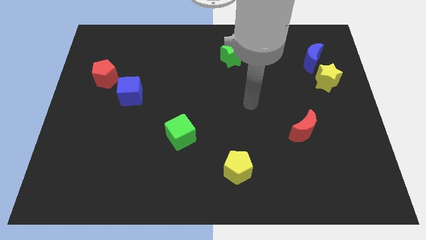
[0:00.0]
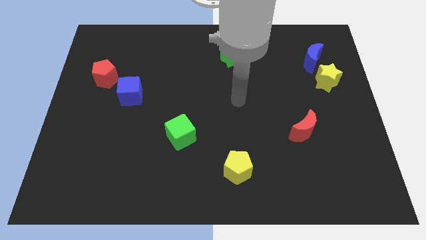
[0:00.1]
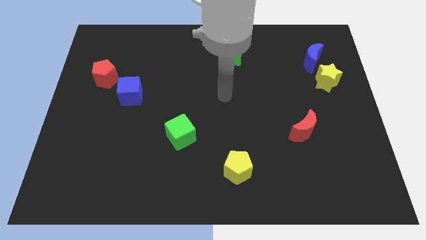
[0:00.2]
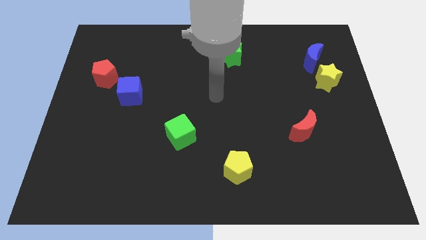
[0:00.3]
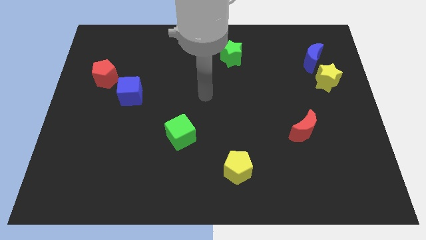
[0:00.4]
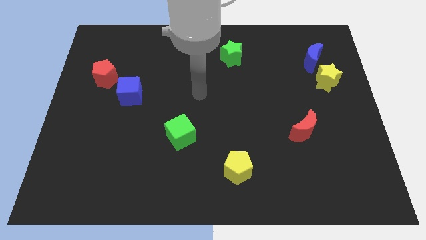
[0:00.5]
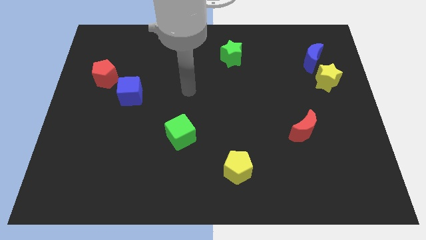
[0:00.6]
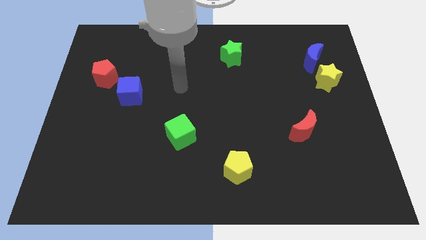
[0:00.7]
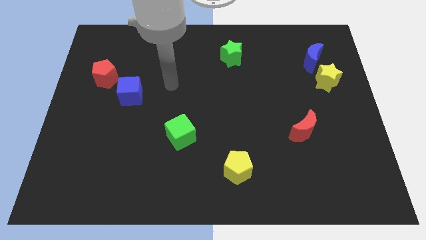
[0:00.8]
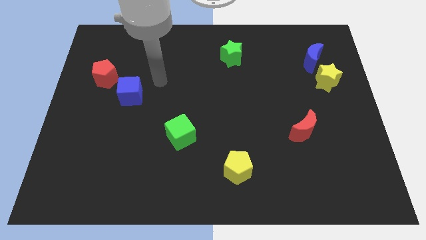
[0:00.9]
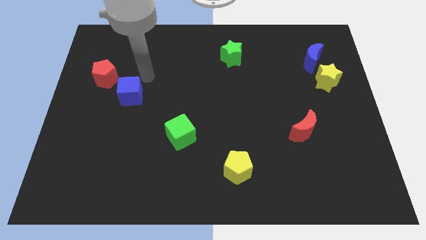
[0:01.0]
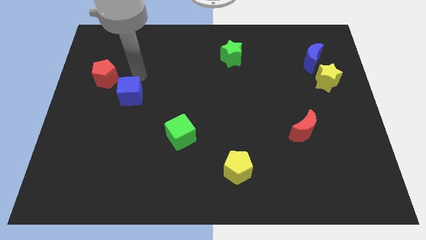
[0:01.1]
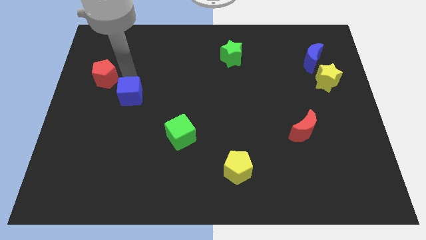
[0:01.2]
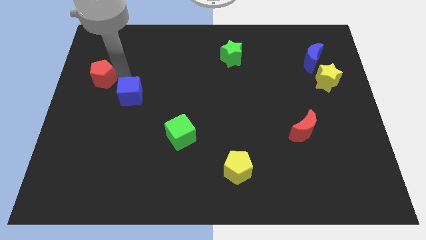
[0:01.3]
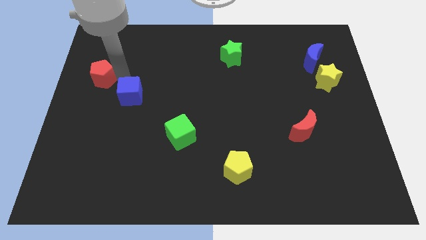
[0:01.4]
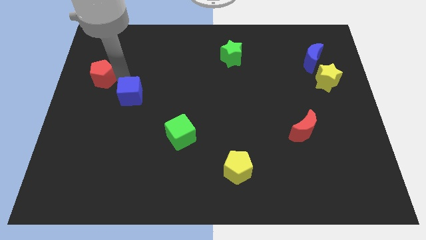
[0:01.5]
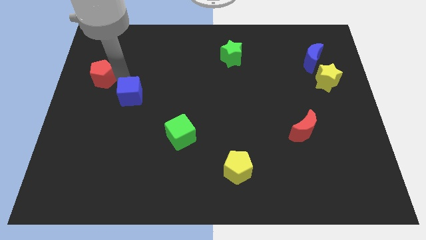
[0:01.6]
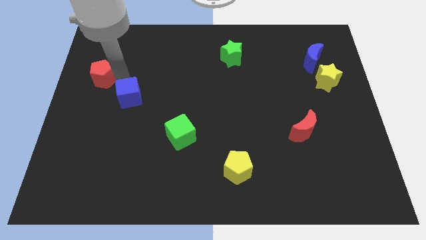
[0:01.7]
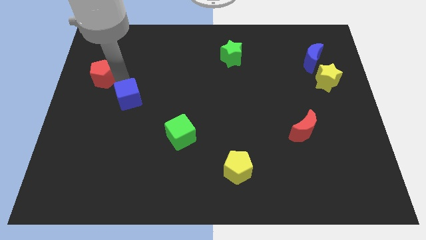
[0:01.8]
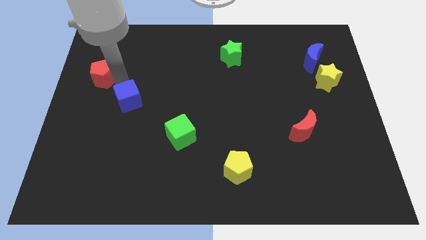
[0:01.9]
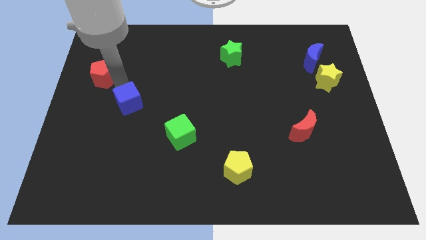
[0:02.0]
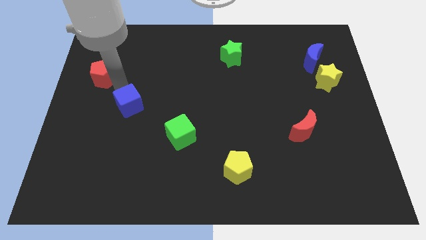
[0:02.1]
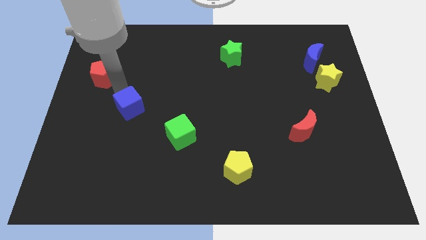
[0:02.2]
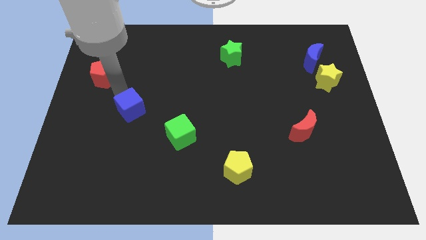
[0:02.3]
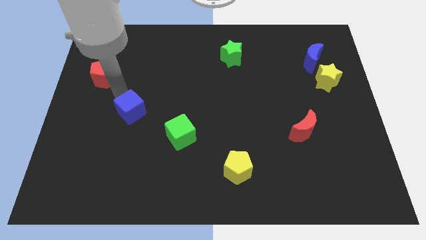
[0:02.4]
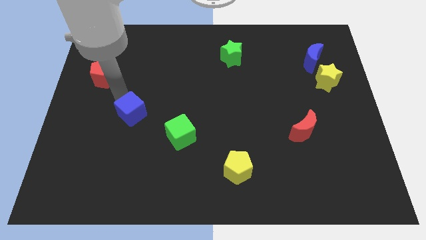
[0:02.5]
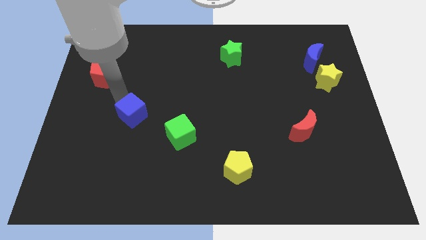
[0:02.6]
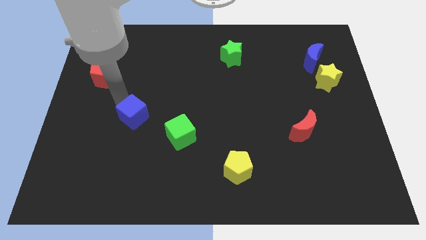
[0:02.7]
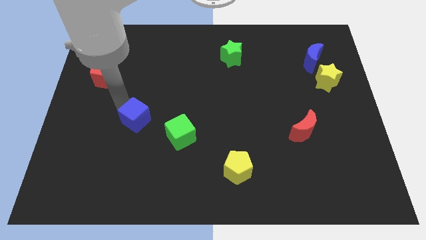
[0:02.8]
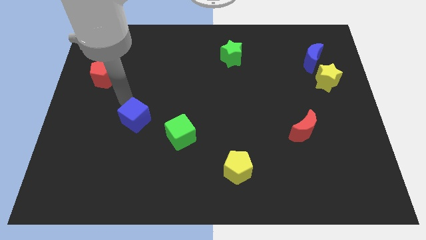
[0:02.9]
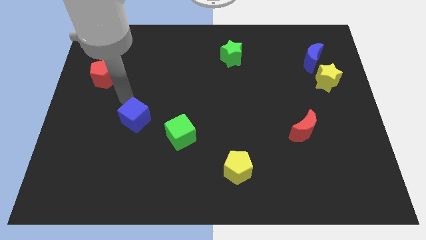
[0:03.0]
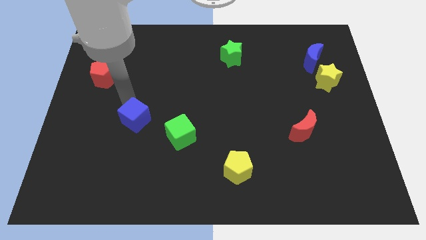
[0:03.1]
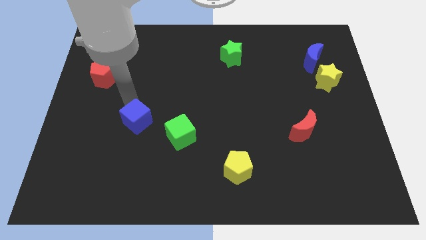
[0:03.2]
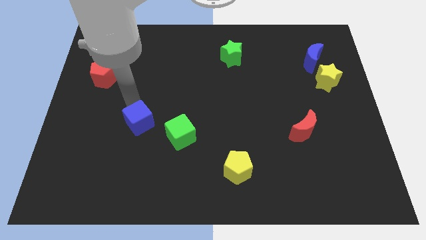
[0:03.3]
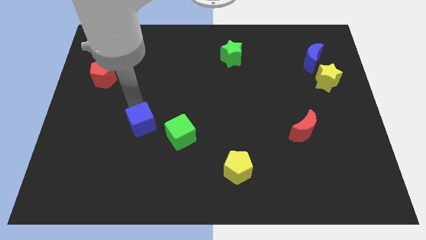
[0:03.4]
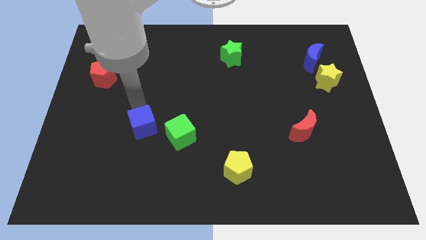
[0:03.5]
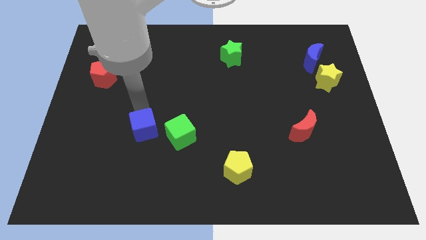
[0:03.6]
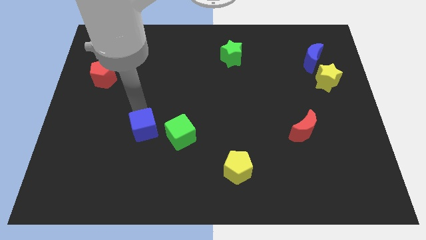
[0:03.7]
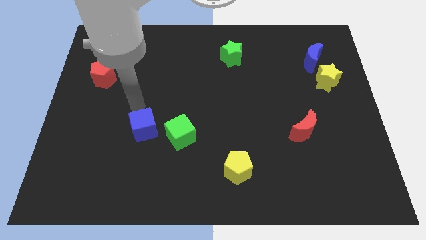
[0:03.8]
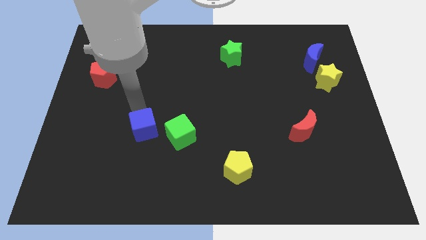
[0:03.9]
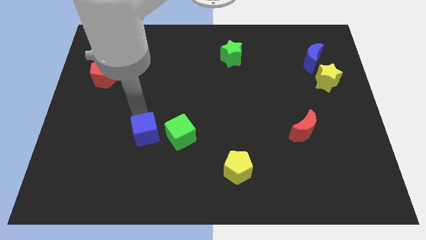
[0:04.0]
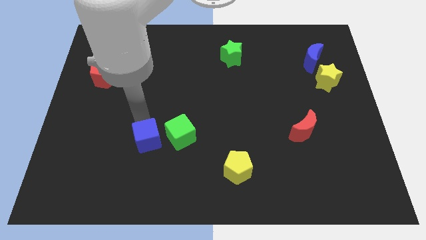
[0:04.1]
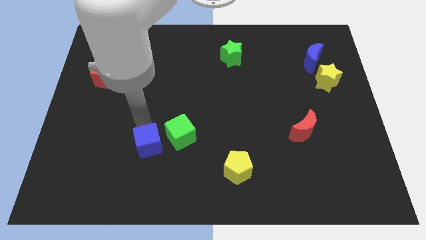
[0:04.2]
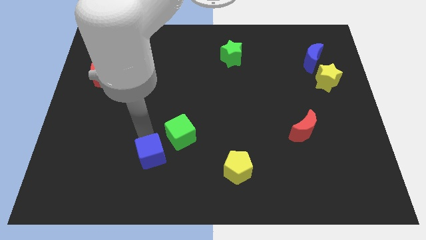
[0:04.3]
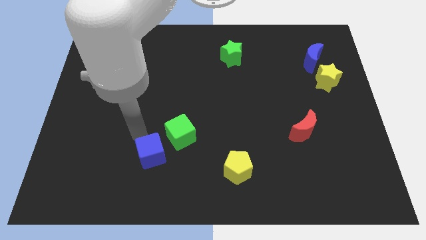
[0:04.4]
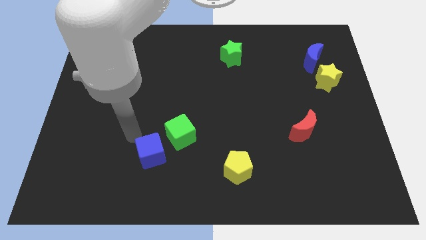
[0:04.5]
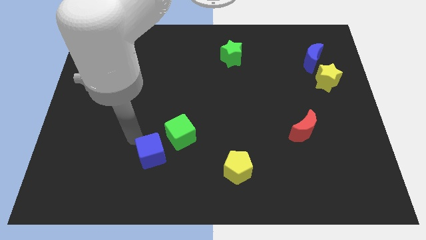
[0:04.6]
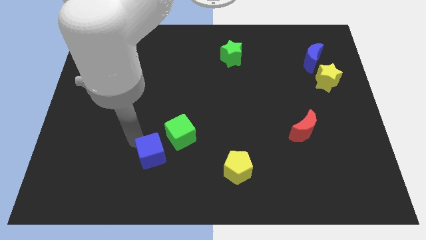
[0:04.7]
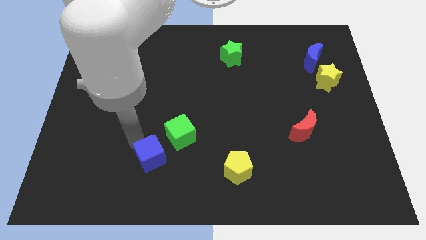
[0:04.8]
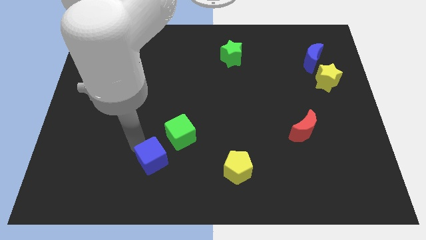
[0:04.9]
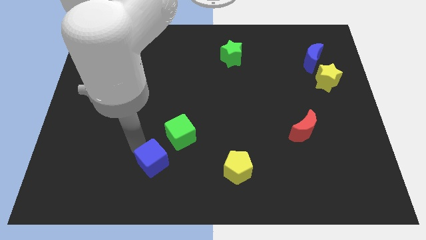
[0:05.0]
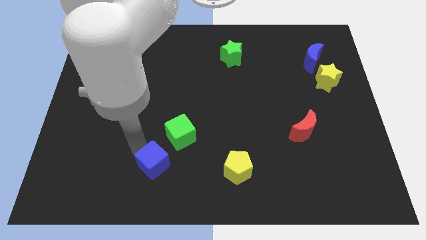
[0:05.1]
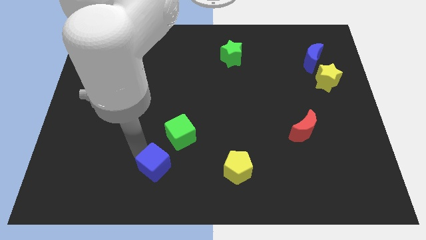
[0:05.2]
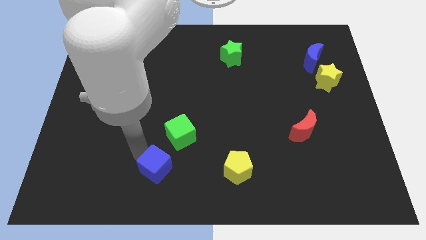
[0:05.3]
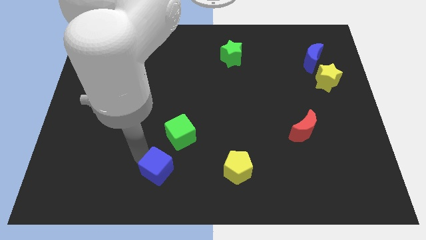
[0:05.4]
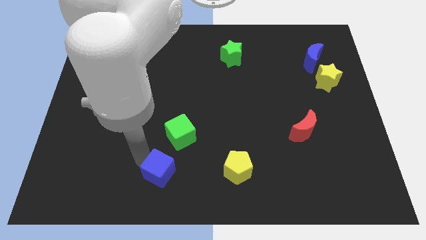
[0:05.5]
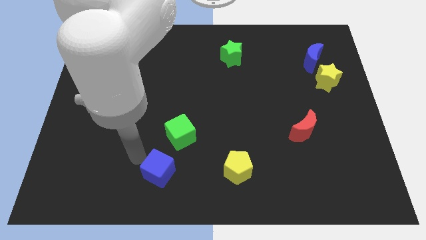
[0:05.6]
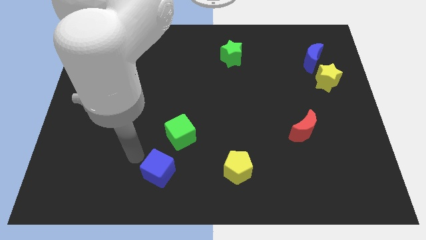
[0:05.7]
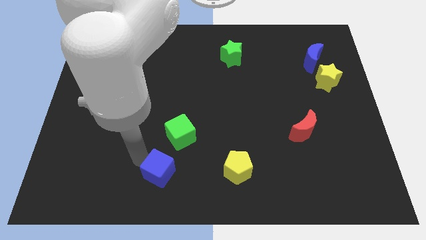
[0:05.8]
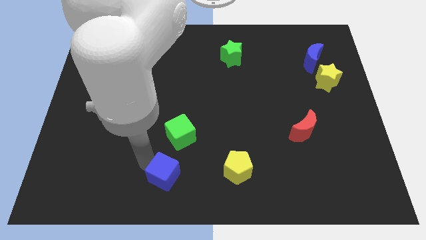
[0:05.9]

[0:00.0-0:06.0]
put the blue cube to the bottom side
